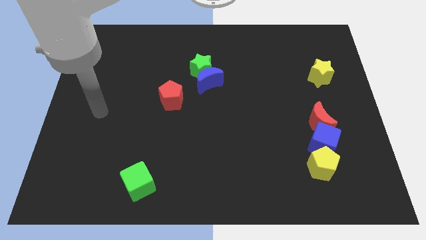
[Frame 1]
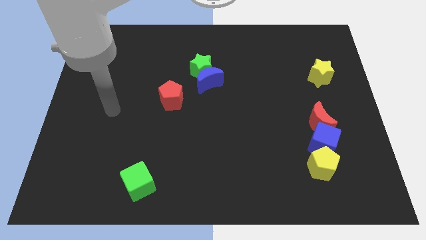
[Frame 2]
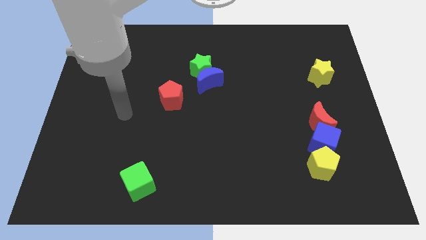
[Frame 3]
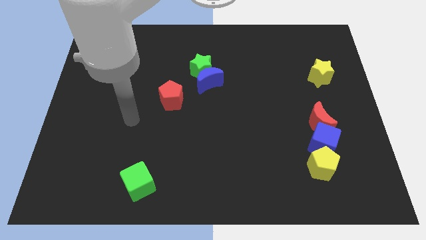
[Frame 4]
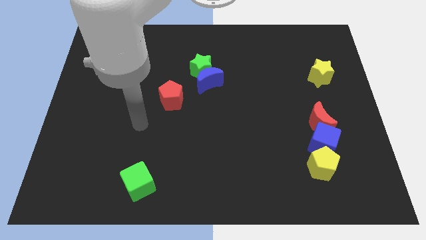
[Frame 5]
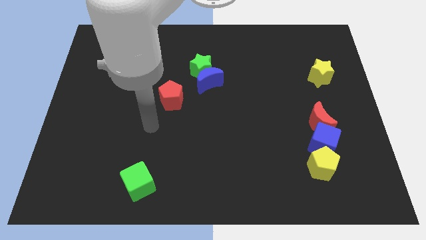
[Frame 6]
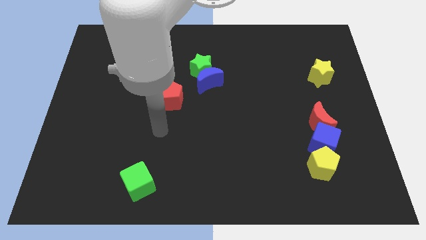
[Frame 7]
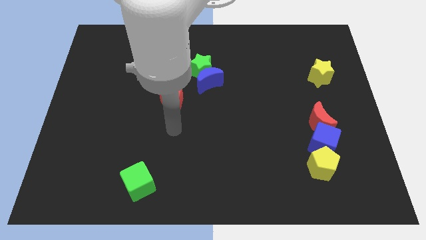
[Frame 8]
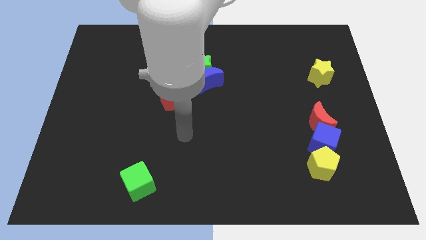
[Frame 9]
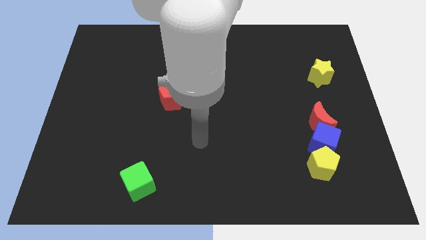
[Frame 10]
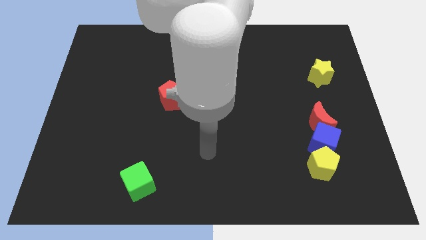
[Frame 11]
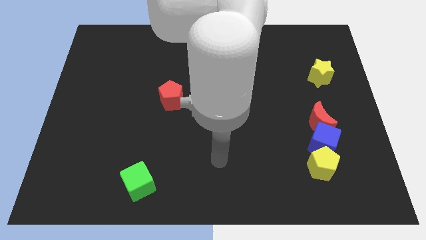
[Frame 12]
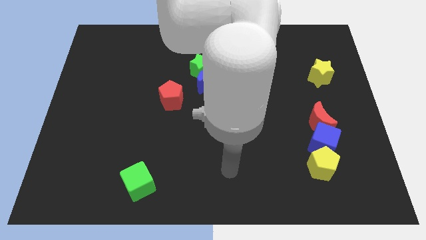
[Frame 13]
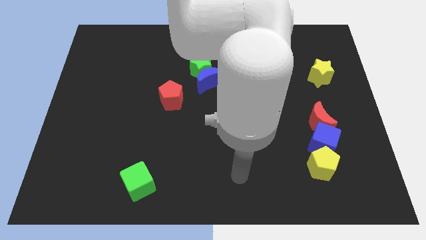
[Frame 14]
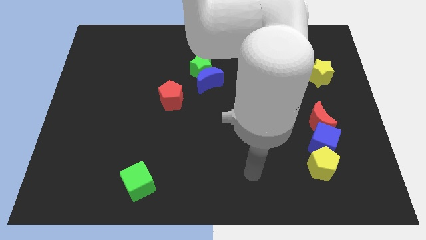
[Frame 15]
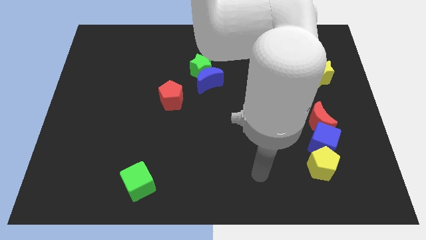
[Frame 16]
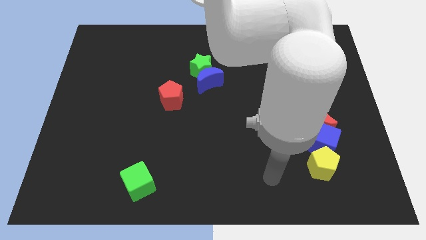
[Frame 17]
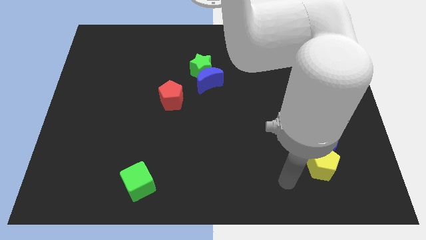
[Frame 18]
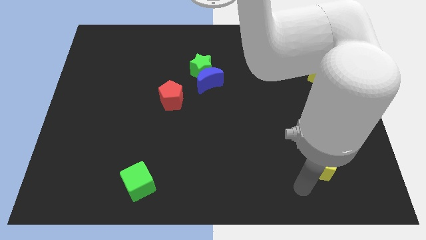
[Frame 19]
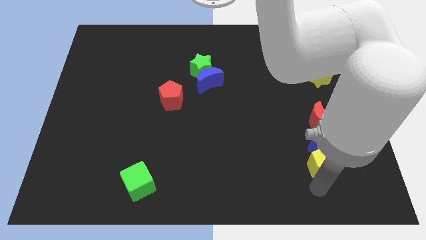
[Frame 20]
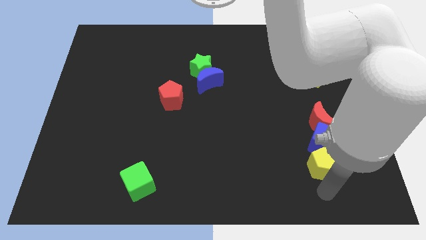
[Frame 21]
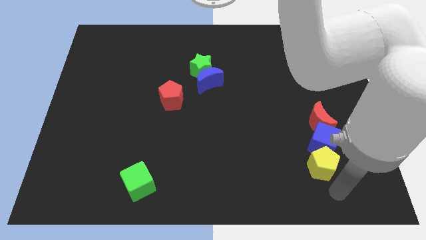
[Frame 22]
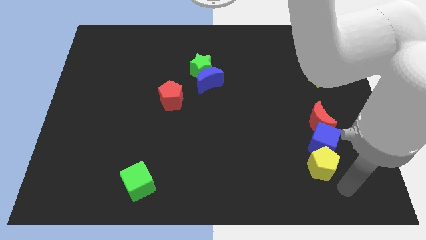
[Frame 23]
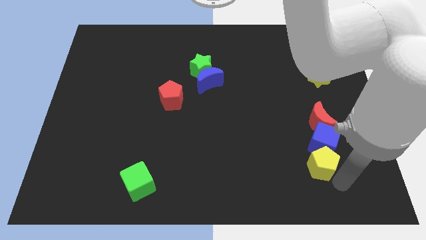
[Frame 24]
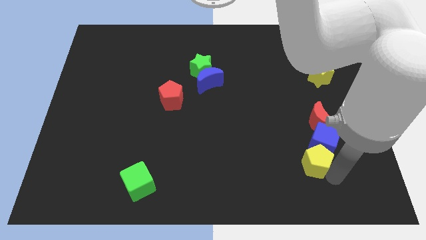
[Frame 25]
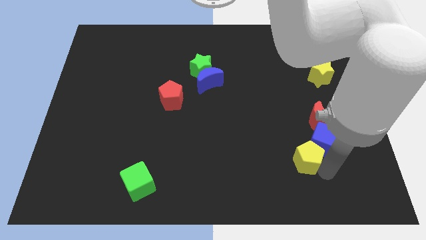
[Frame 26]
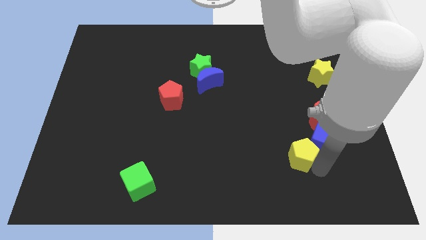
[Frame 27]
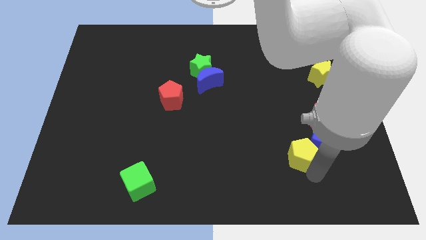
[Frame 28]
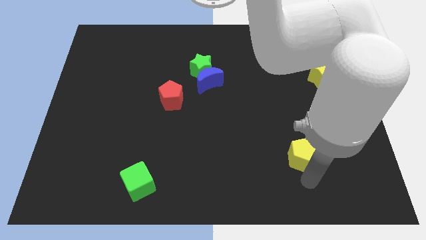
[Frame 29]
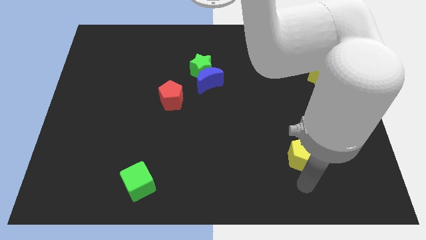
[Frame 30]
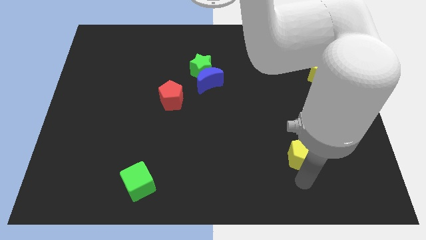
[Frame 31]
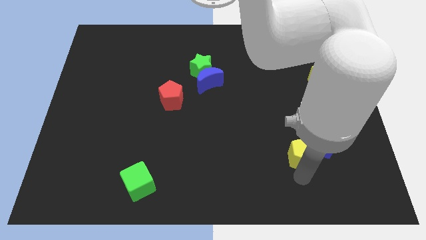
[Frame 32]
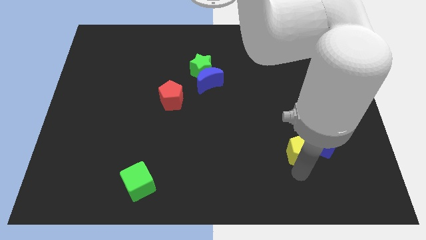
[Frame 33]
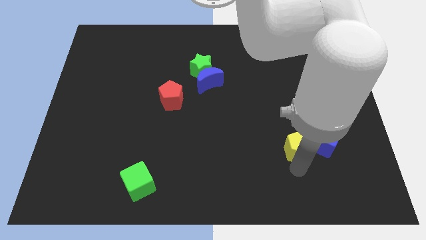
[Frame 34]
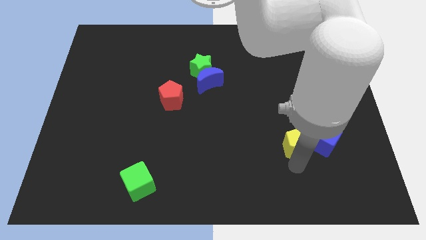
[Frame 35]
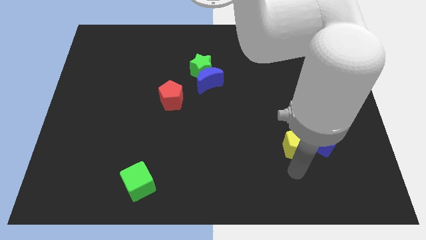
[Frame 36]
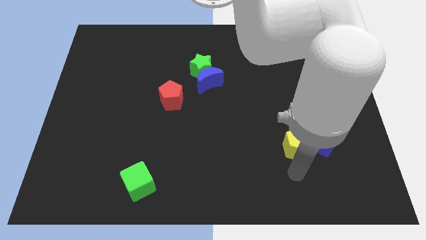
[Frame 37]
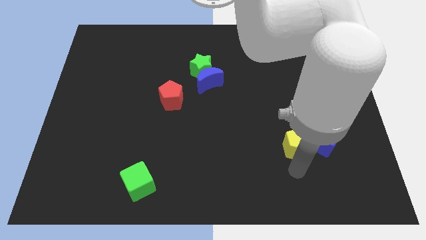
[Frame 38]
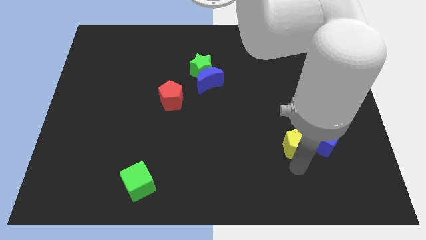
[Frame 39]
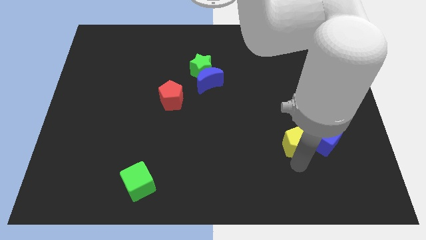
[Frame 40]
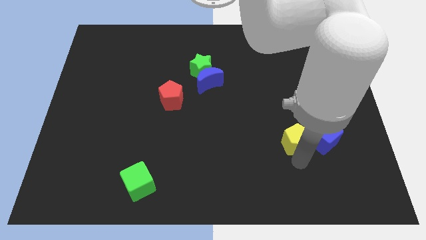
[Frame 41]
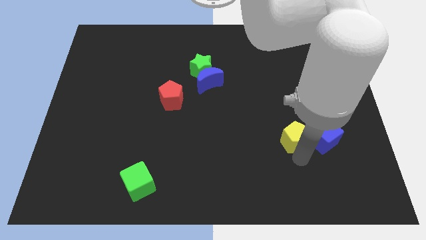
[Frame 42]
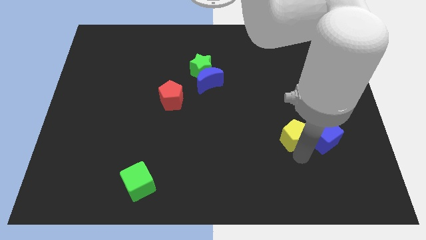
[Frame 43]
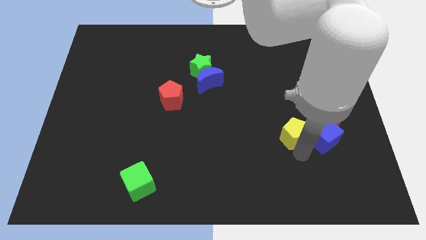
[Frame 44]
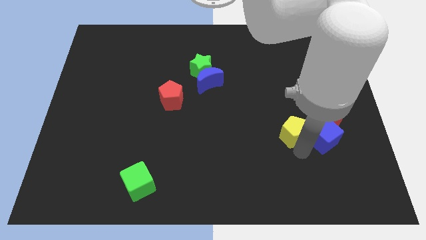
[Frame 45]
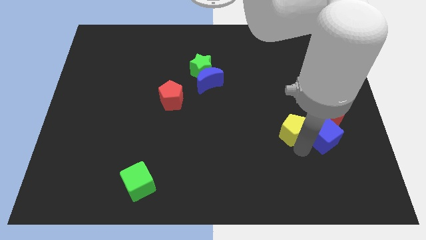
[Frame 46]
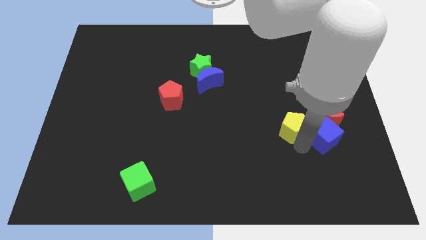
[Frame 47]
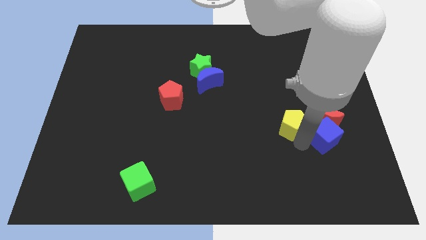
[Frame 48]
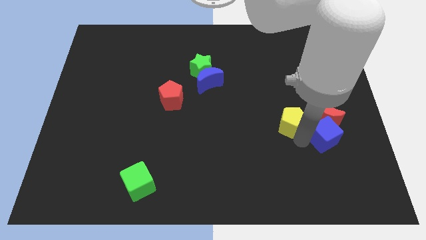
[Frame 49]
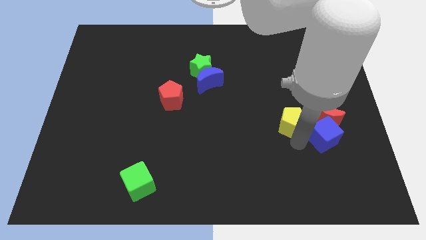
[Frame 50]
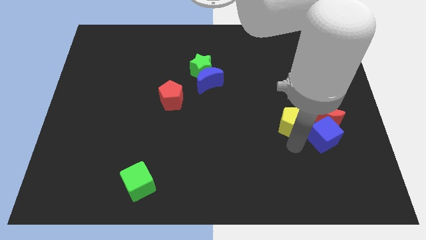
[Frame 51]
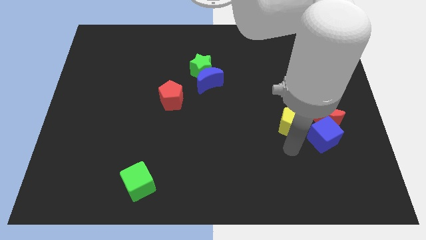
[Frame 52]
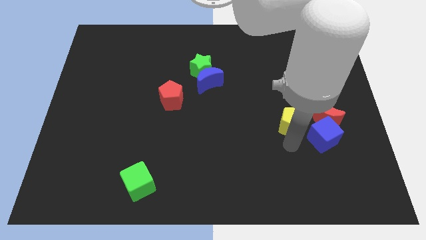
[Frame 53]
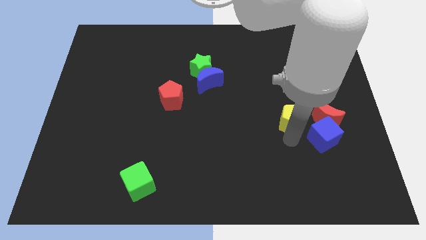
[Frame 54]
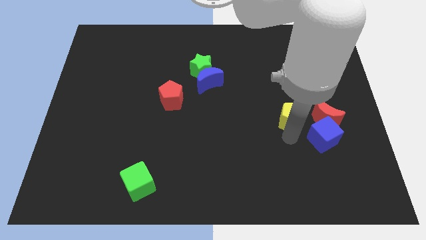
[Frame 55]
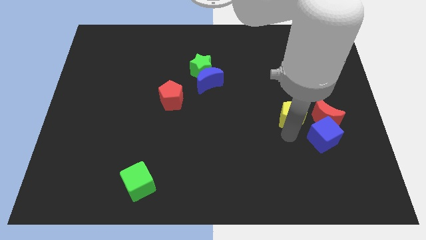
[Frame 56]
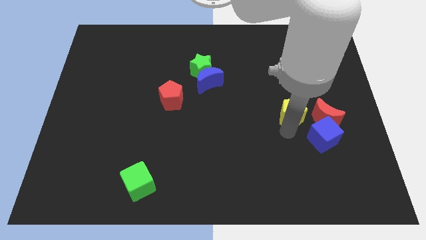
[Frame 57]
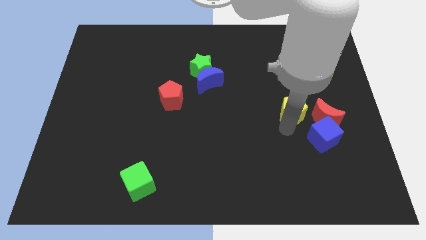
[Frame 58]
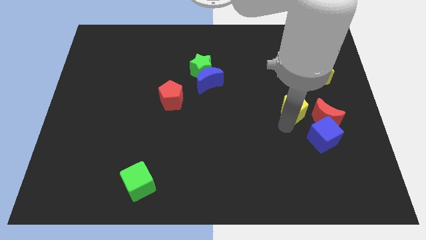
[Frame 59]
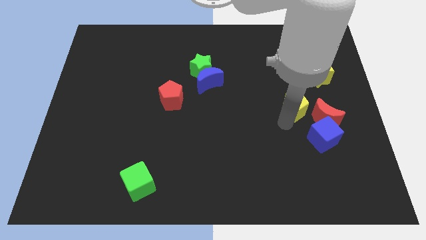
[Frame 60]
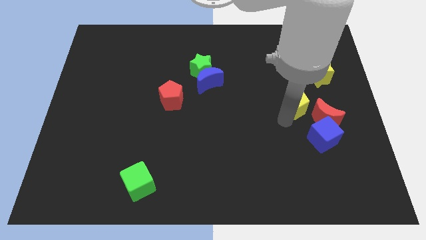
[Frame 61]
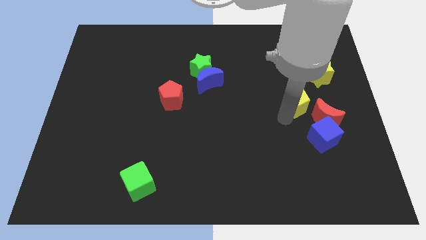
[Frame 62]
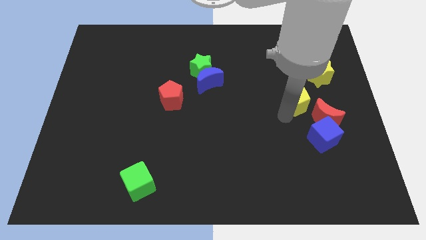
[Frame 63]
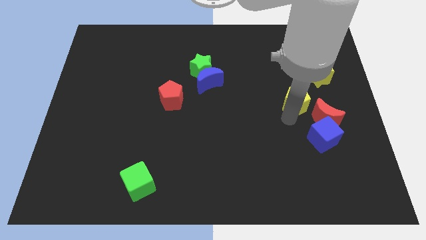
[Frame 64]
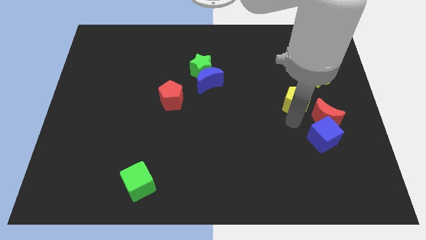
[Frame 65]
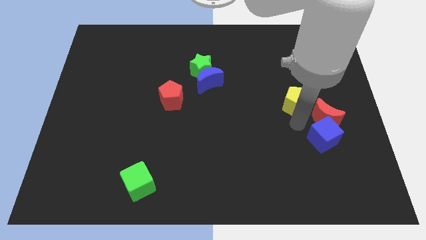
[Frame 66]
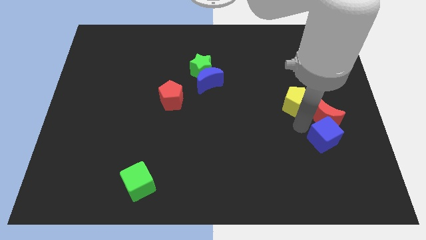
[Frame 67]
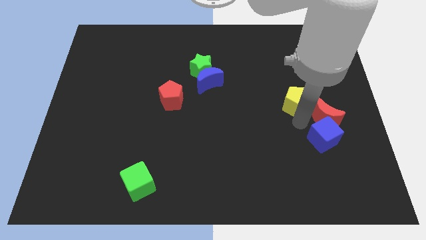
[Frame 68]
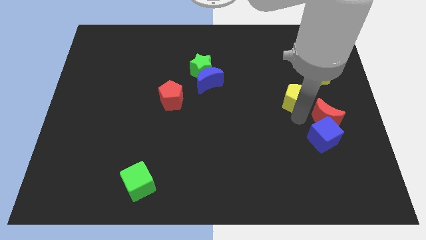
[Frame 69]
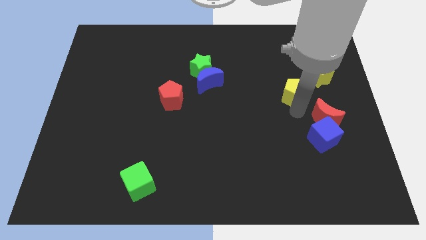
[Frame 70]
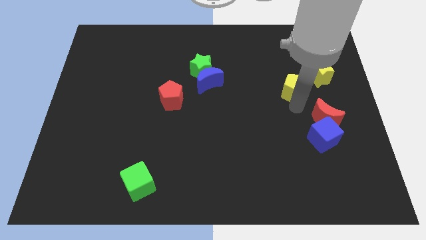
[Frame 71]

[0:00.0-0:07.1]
push the yellow pentagon upwards

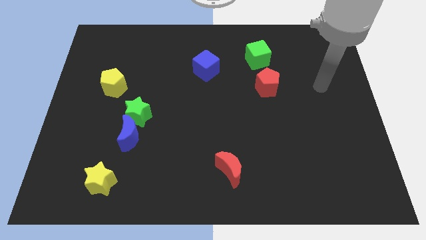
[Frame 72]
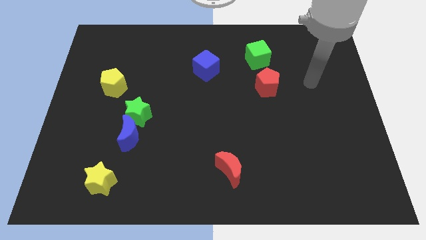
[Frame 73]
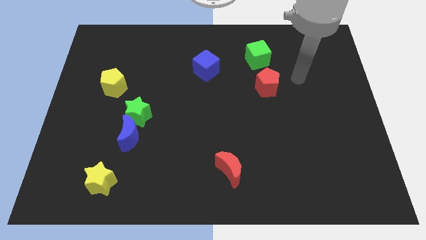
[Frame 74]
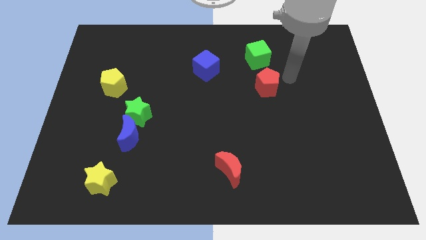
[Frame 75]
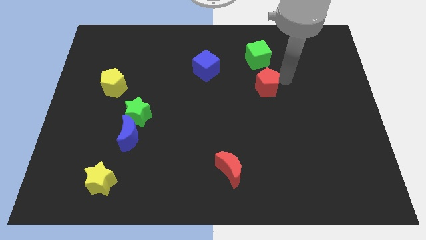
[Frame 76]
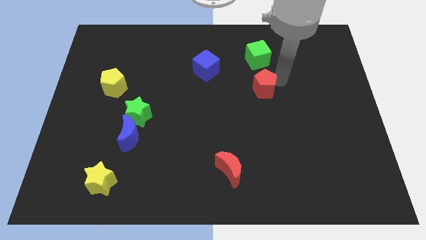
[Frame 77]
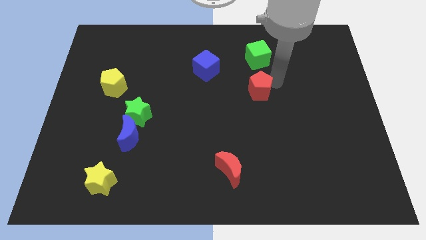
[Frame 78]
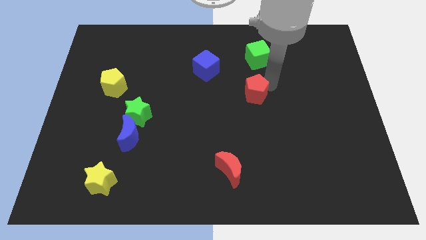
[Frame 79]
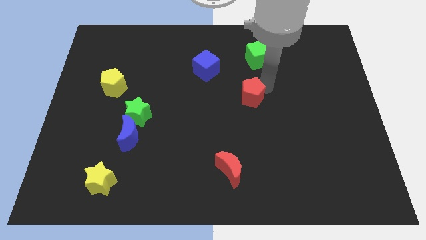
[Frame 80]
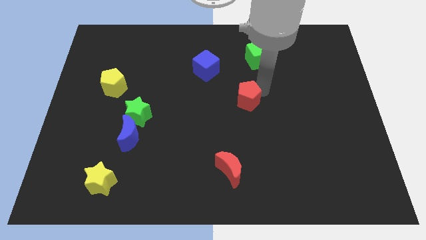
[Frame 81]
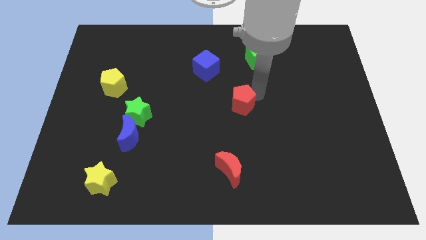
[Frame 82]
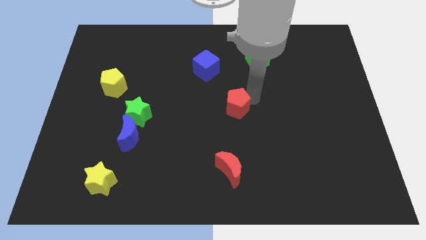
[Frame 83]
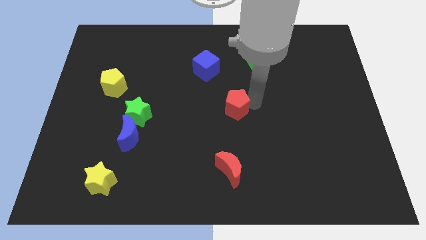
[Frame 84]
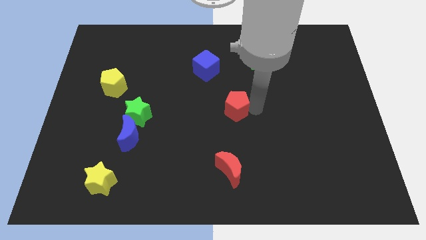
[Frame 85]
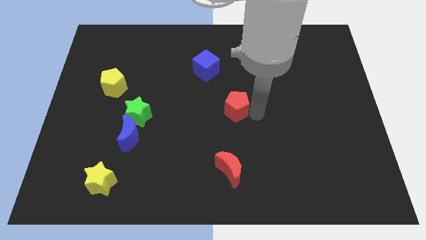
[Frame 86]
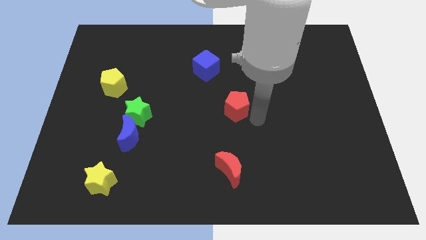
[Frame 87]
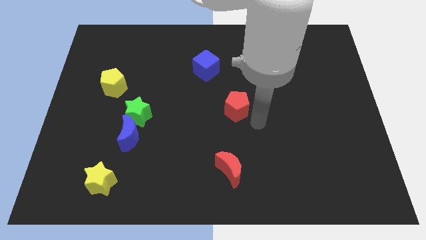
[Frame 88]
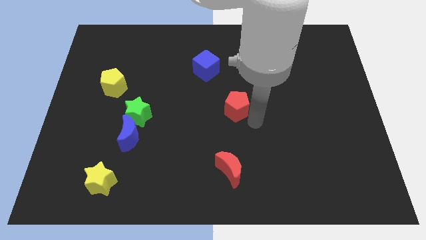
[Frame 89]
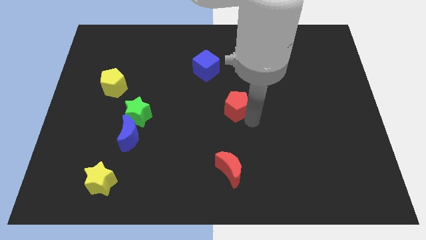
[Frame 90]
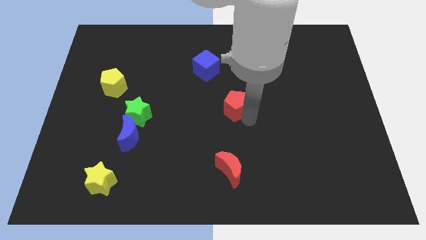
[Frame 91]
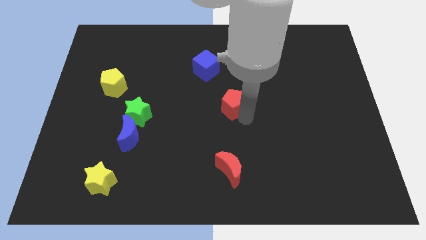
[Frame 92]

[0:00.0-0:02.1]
slightly slide the red pentagon to the left
